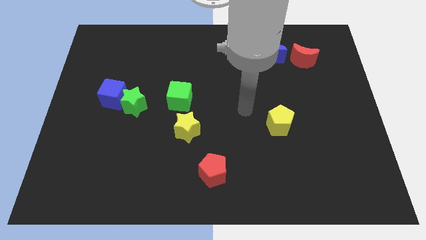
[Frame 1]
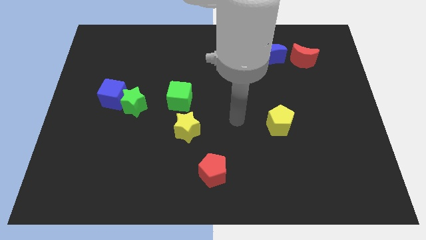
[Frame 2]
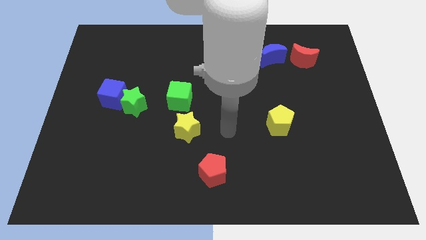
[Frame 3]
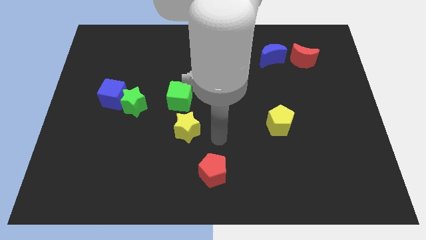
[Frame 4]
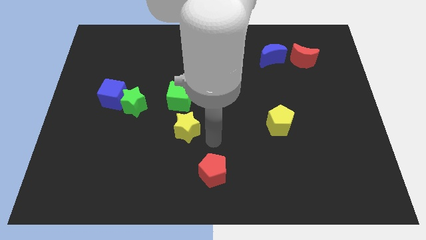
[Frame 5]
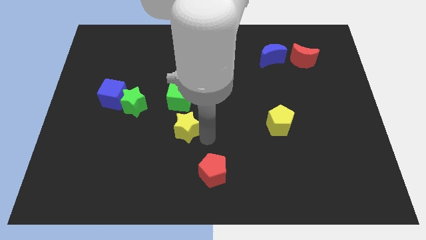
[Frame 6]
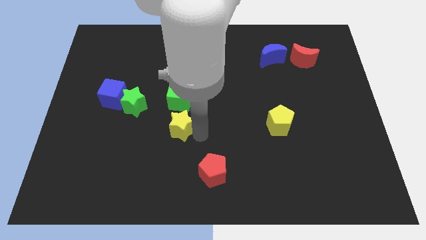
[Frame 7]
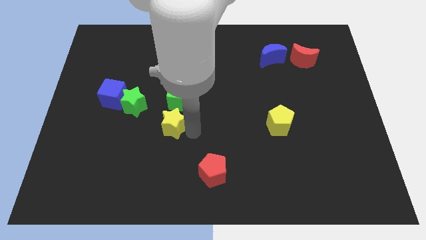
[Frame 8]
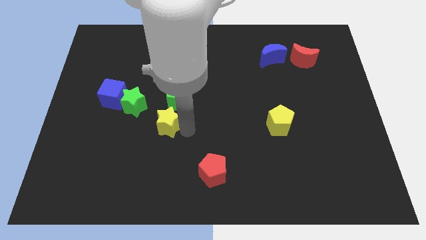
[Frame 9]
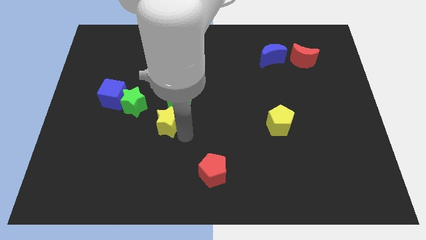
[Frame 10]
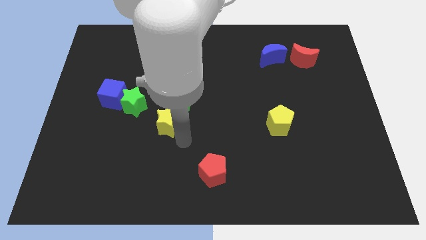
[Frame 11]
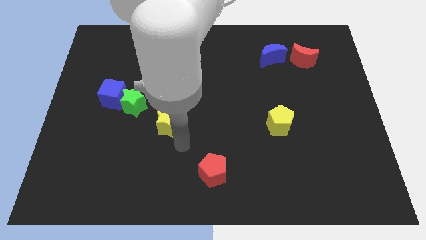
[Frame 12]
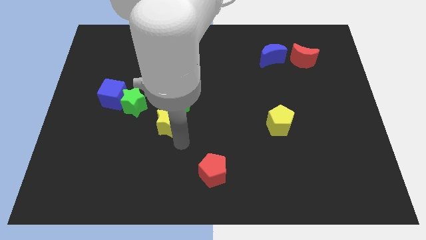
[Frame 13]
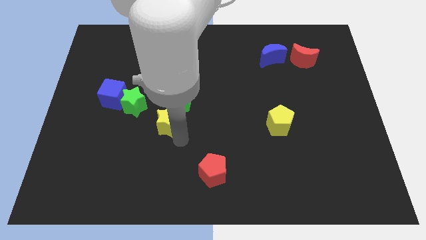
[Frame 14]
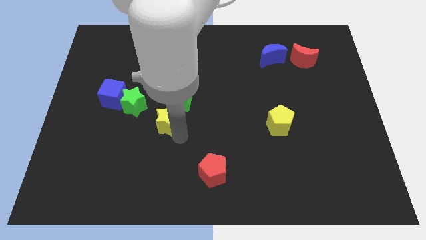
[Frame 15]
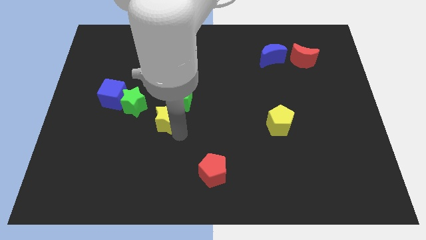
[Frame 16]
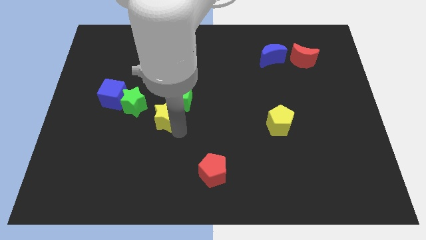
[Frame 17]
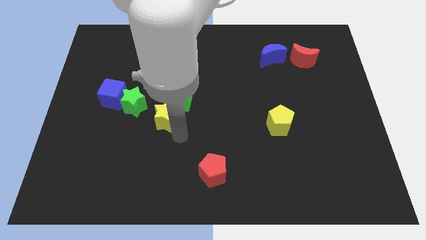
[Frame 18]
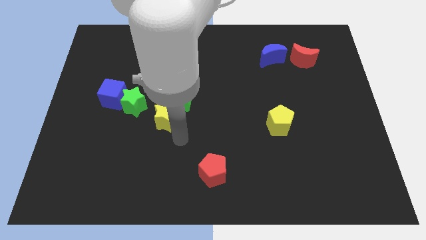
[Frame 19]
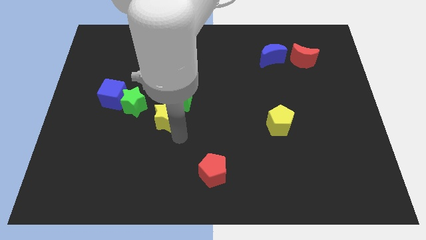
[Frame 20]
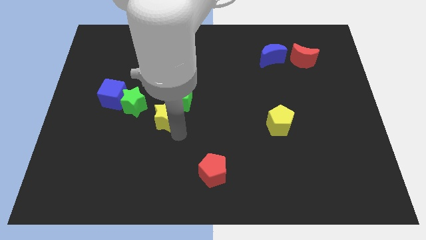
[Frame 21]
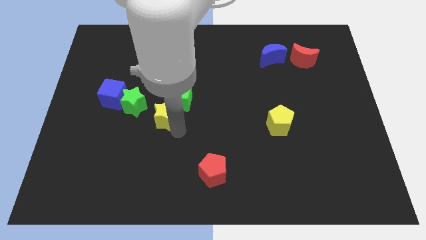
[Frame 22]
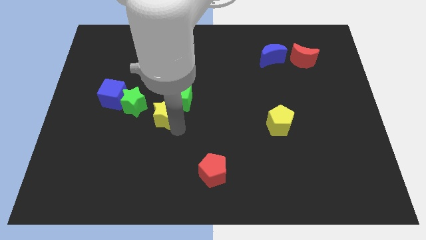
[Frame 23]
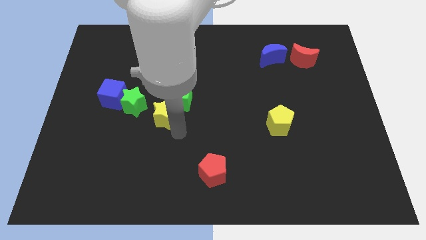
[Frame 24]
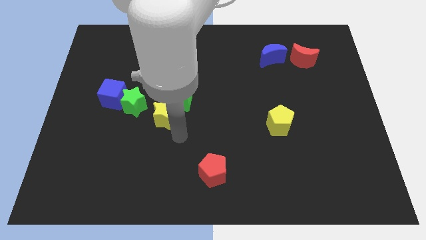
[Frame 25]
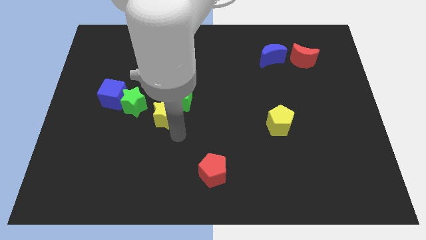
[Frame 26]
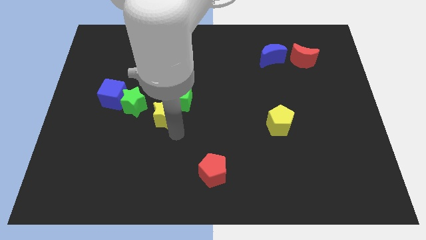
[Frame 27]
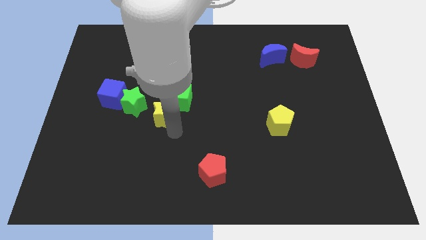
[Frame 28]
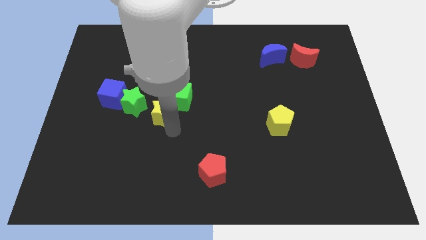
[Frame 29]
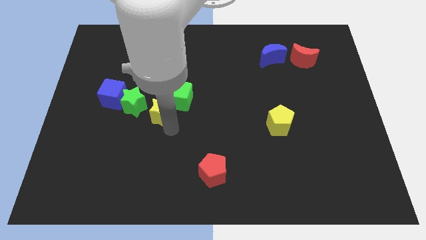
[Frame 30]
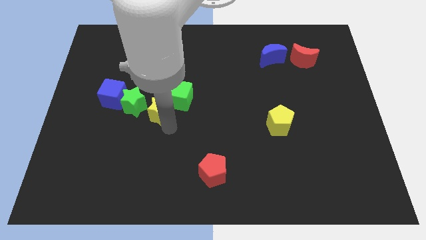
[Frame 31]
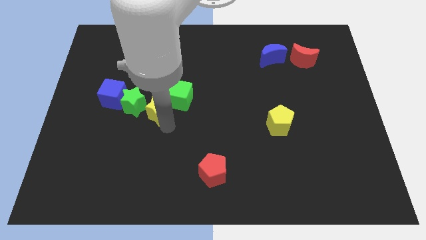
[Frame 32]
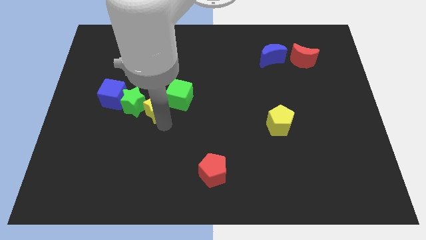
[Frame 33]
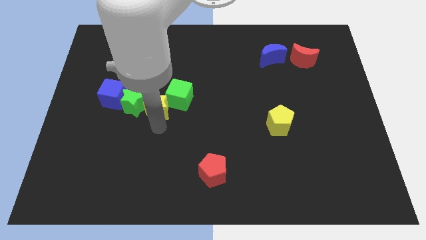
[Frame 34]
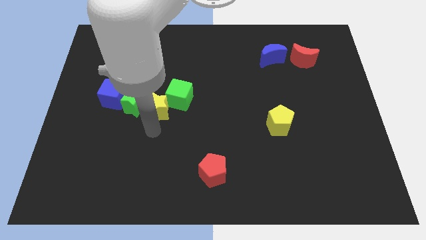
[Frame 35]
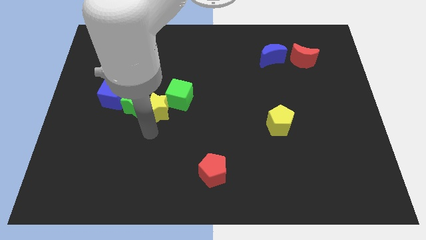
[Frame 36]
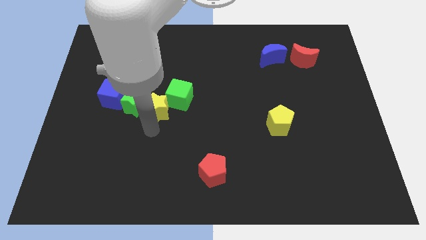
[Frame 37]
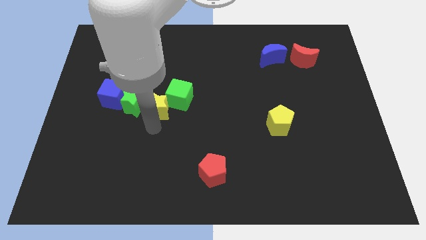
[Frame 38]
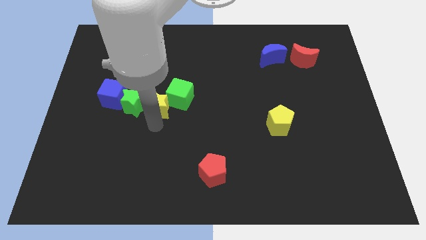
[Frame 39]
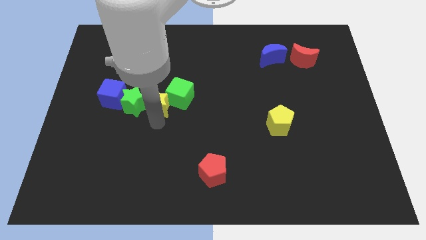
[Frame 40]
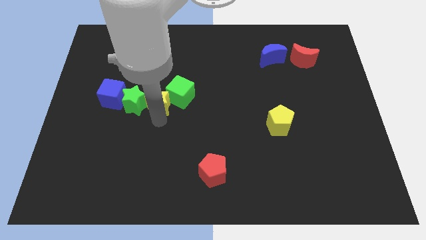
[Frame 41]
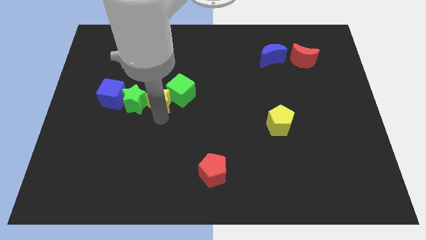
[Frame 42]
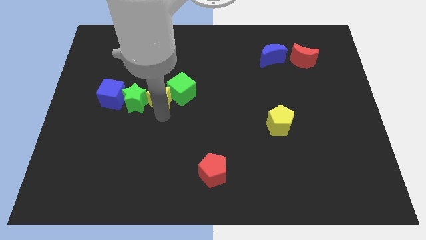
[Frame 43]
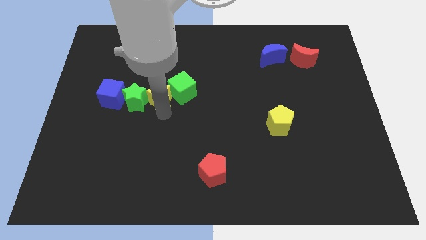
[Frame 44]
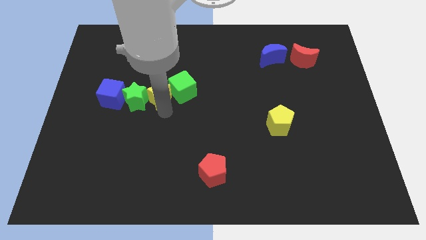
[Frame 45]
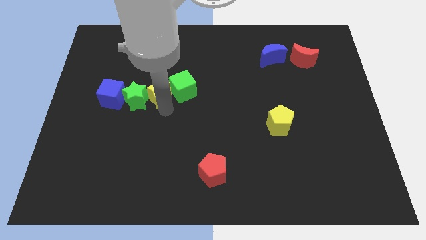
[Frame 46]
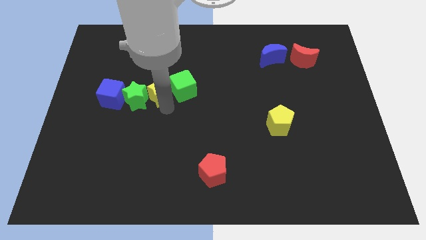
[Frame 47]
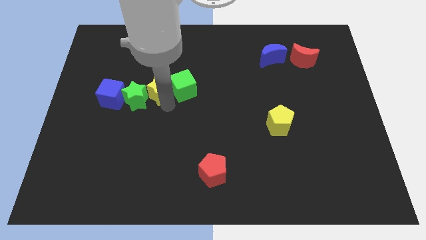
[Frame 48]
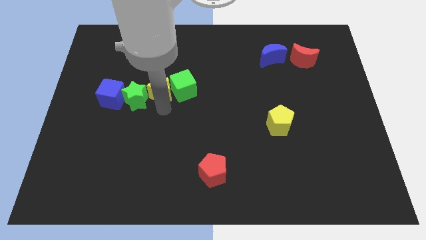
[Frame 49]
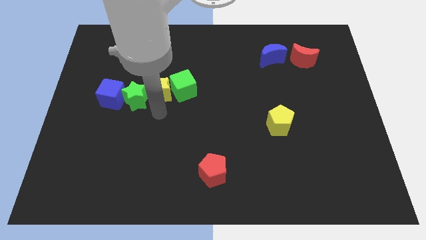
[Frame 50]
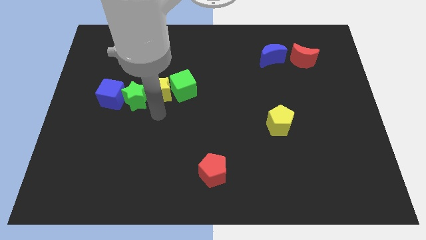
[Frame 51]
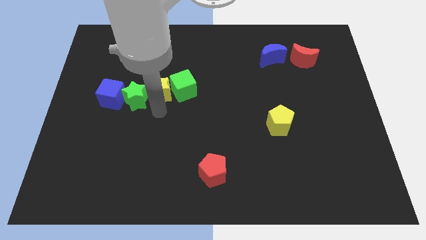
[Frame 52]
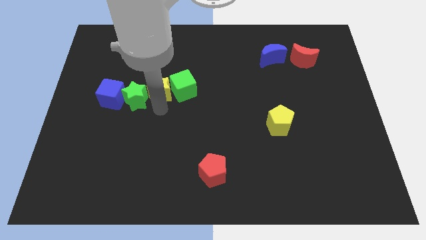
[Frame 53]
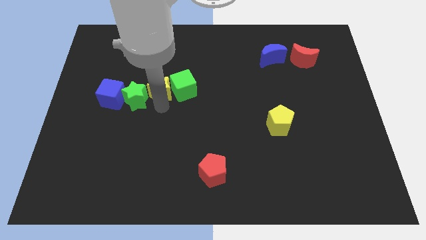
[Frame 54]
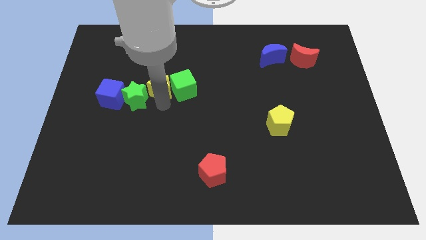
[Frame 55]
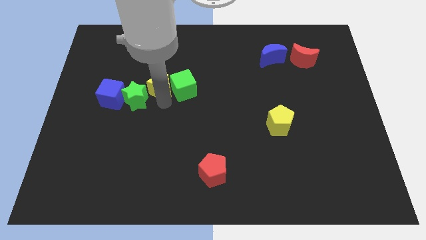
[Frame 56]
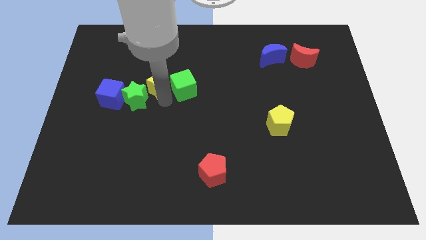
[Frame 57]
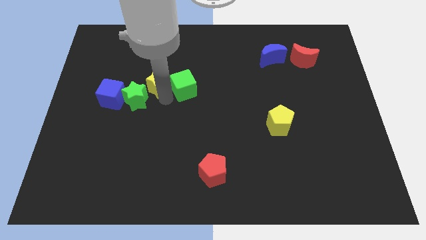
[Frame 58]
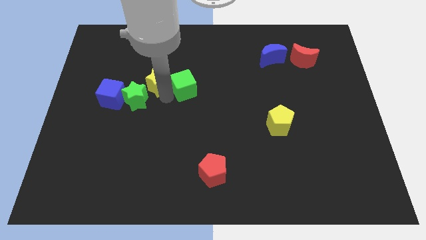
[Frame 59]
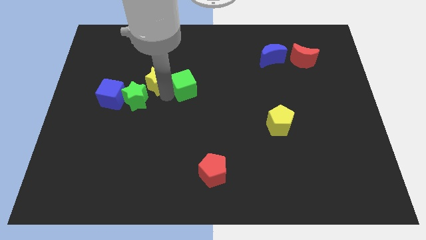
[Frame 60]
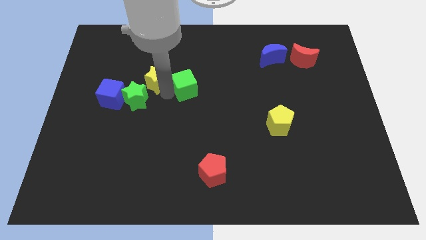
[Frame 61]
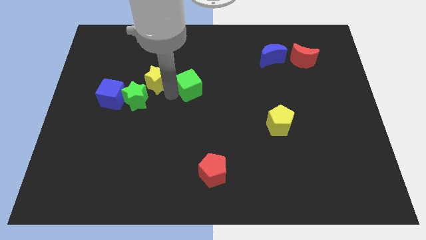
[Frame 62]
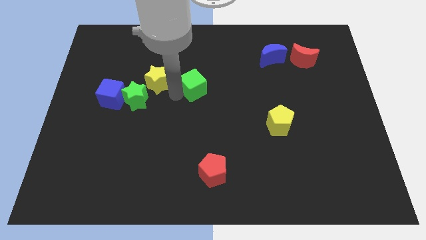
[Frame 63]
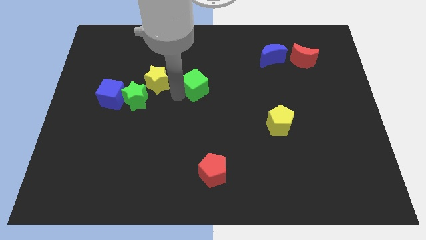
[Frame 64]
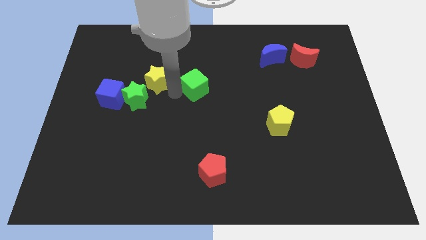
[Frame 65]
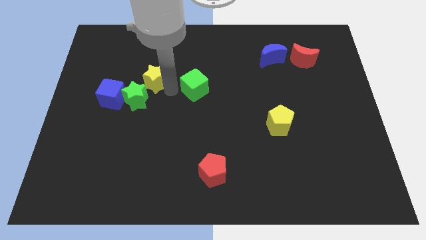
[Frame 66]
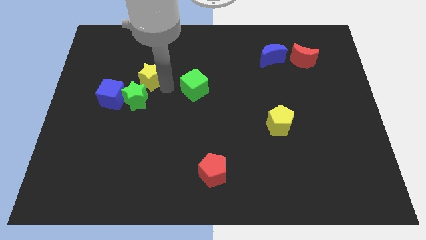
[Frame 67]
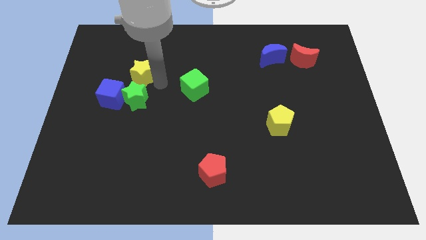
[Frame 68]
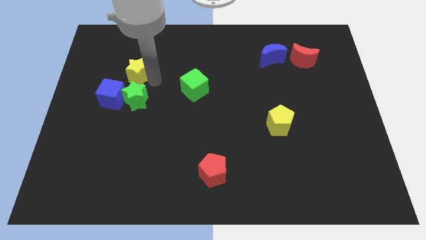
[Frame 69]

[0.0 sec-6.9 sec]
push the yellow star diagonally up and left

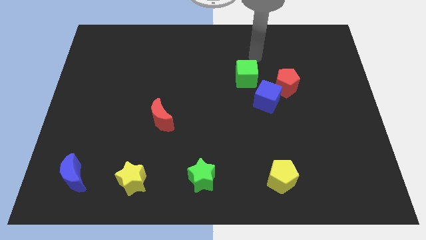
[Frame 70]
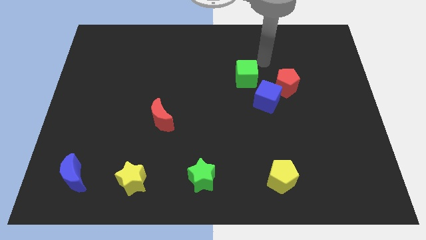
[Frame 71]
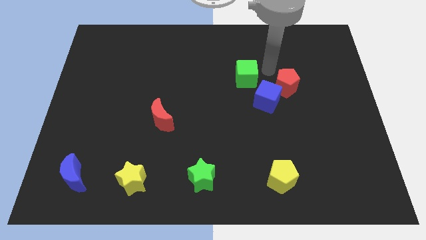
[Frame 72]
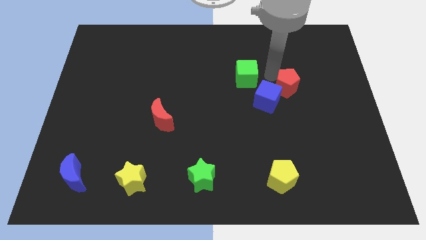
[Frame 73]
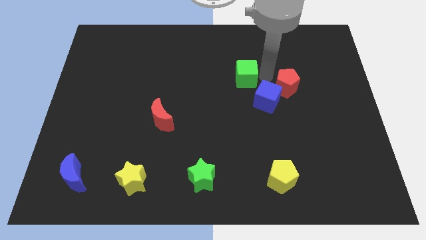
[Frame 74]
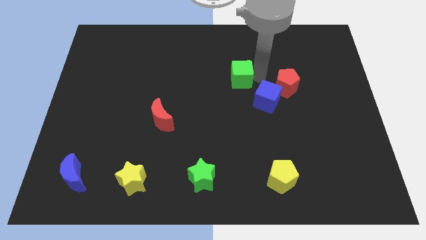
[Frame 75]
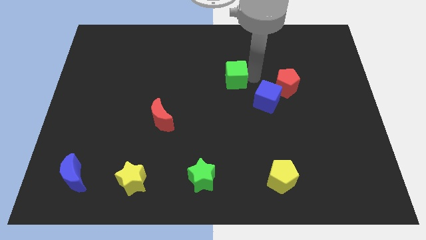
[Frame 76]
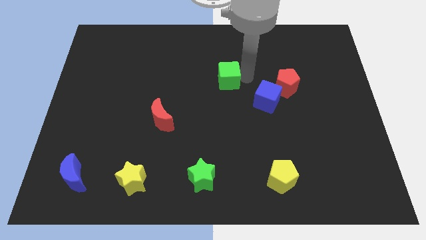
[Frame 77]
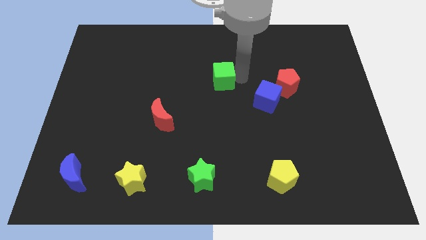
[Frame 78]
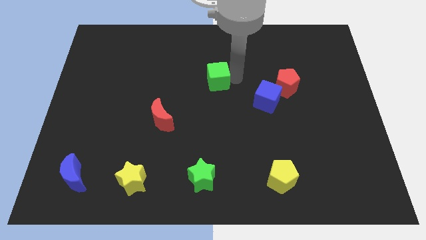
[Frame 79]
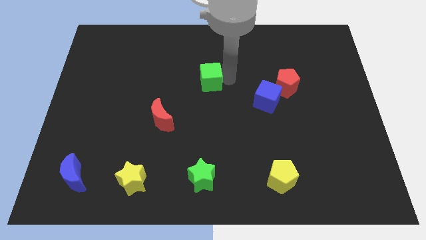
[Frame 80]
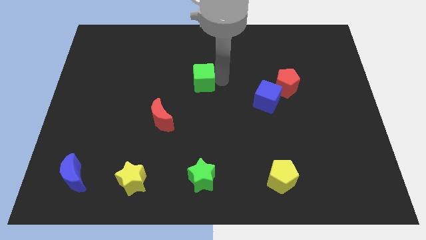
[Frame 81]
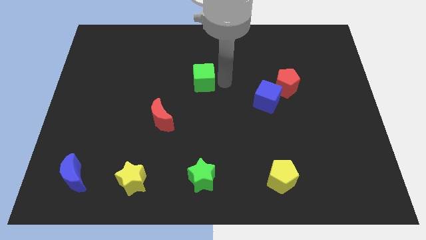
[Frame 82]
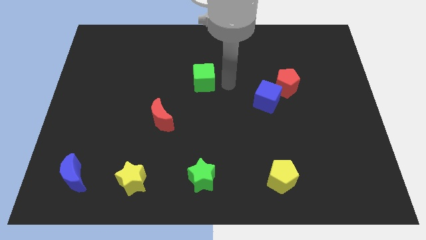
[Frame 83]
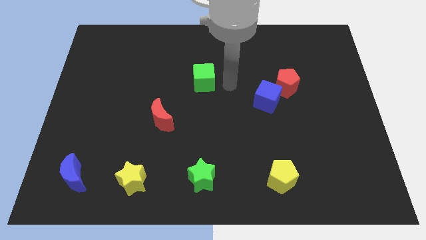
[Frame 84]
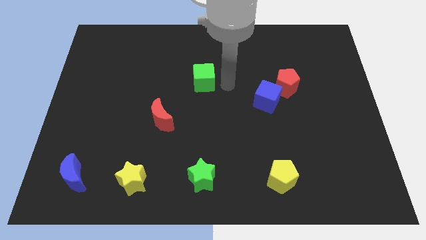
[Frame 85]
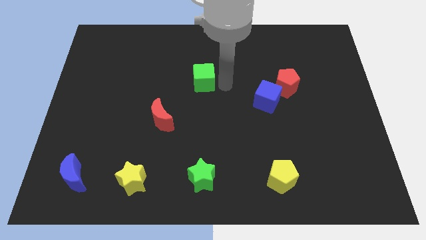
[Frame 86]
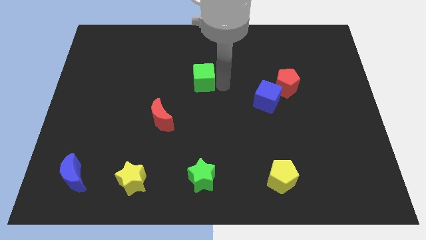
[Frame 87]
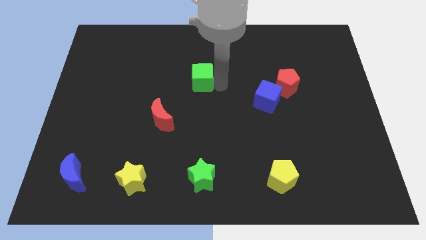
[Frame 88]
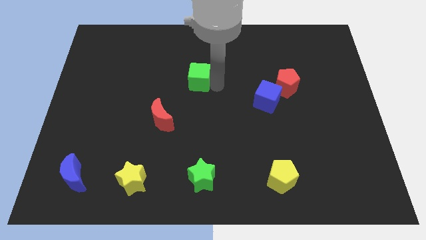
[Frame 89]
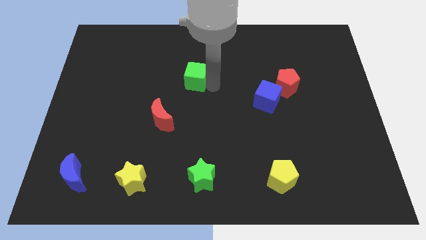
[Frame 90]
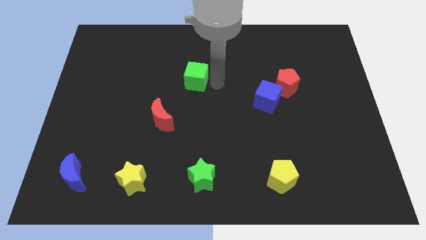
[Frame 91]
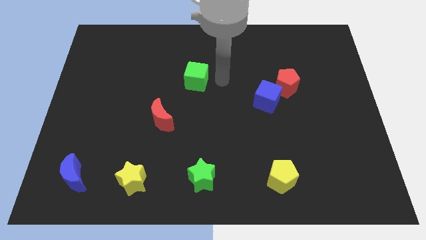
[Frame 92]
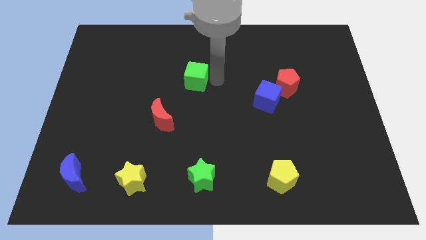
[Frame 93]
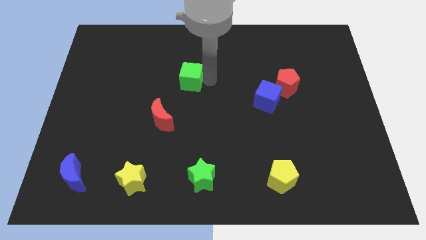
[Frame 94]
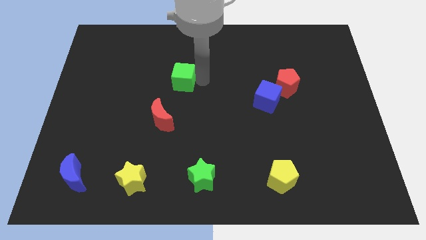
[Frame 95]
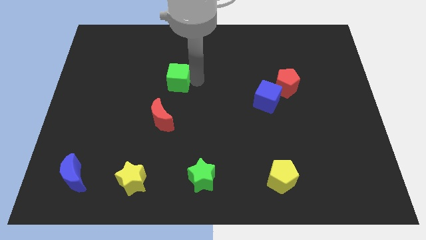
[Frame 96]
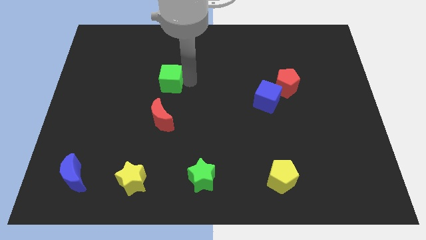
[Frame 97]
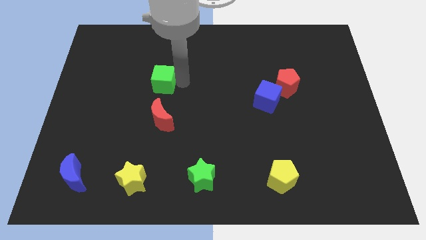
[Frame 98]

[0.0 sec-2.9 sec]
move the green cube to the left
